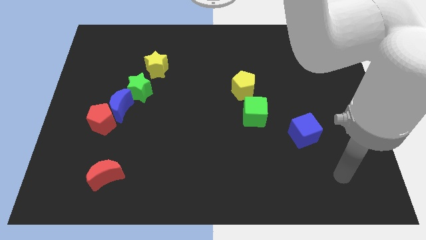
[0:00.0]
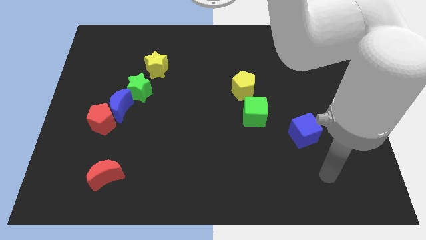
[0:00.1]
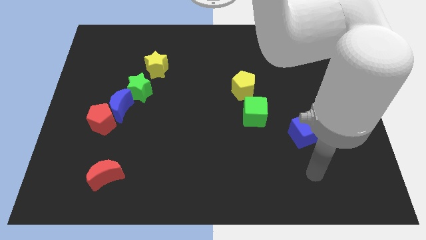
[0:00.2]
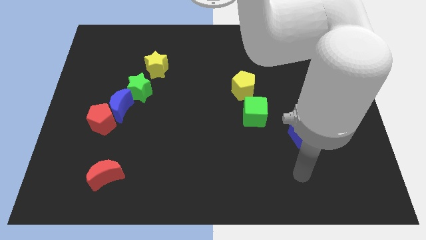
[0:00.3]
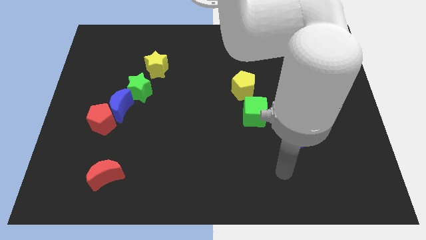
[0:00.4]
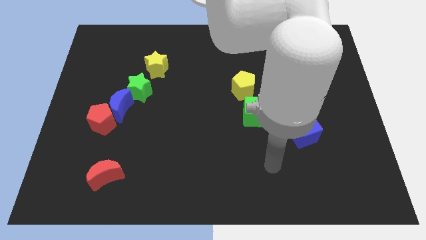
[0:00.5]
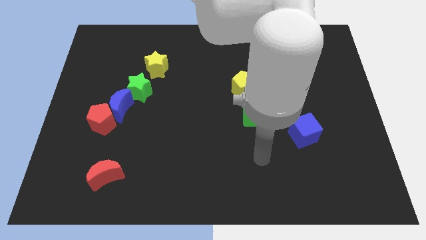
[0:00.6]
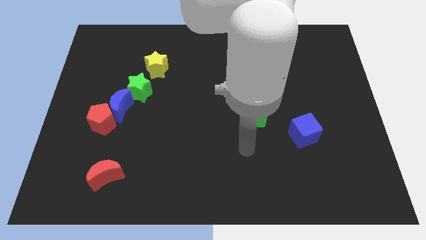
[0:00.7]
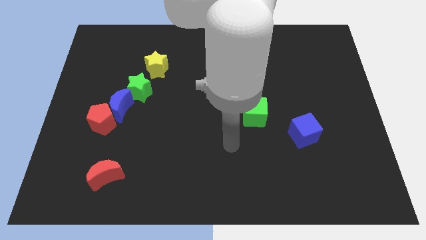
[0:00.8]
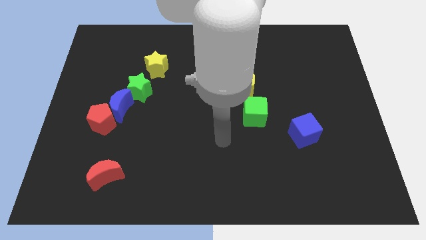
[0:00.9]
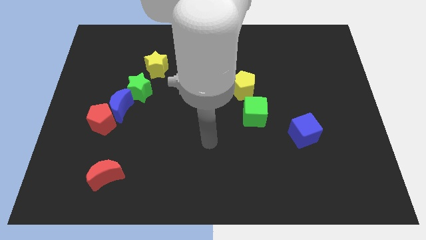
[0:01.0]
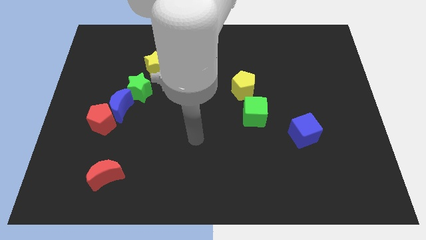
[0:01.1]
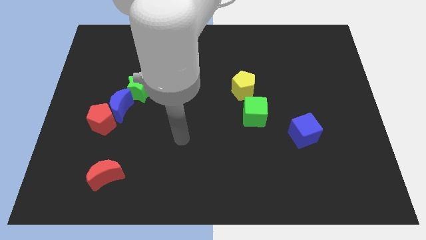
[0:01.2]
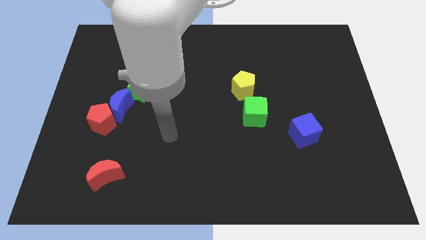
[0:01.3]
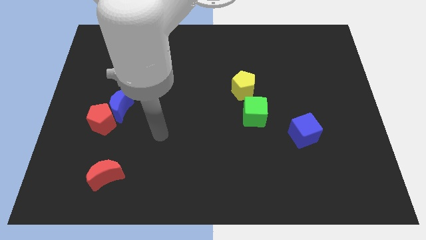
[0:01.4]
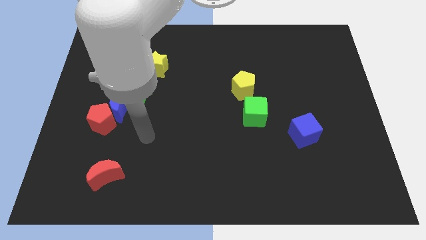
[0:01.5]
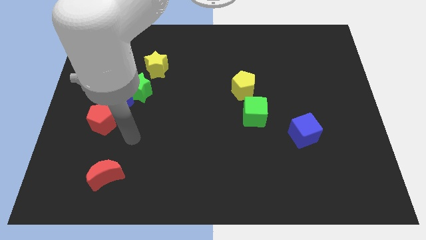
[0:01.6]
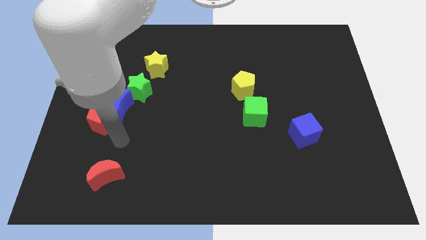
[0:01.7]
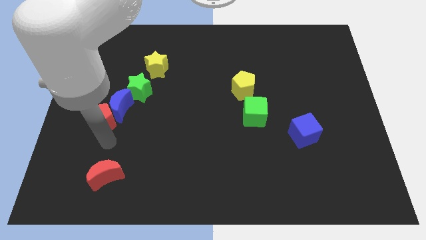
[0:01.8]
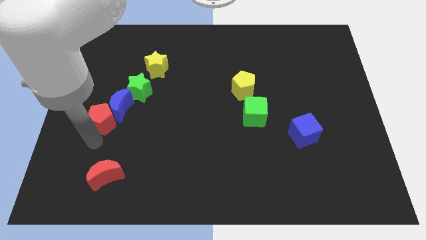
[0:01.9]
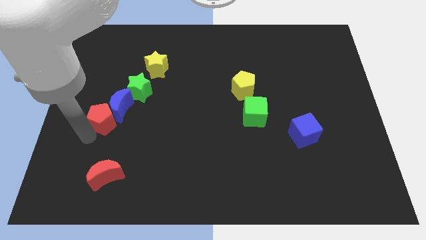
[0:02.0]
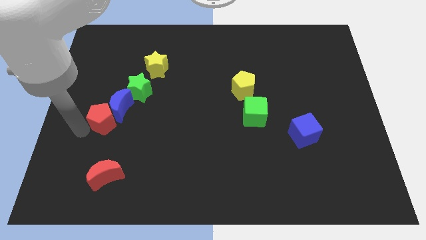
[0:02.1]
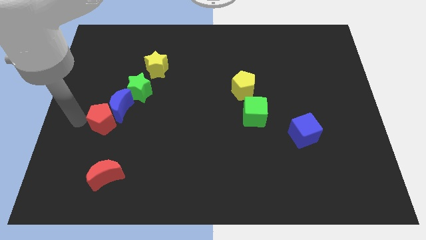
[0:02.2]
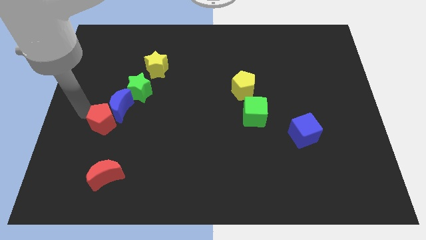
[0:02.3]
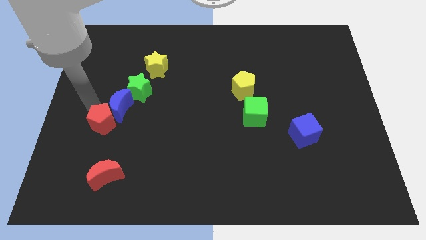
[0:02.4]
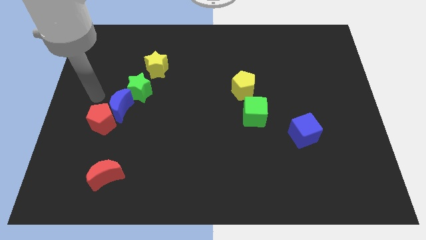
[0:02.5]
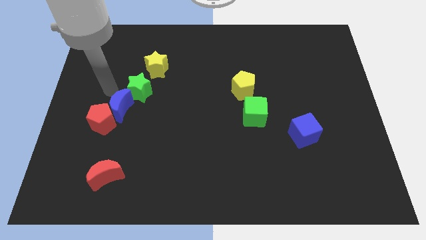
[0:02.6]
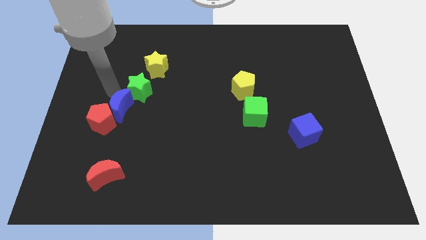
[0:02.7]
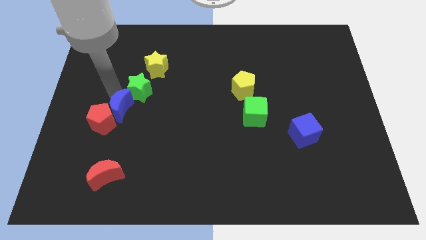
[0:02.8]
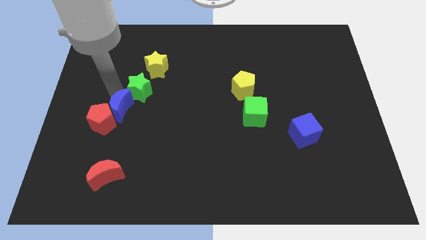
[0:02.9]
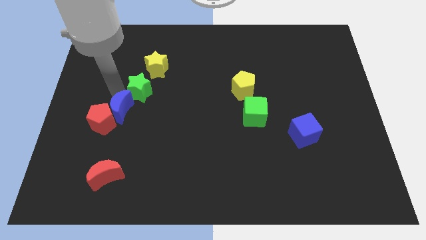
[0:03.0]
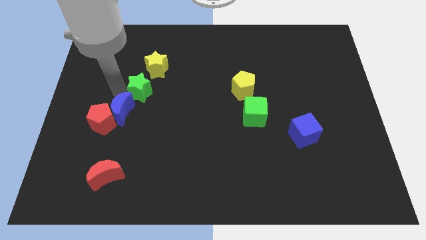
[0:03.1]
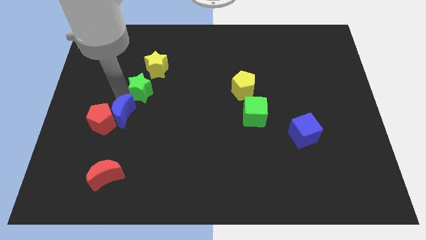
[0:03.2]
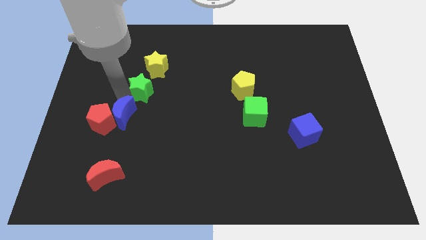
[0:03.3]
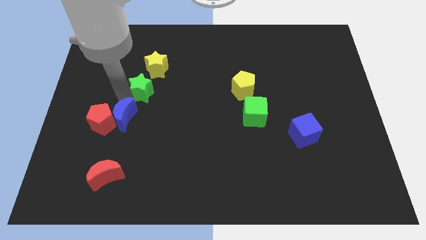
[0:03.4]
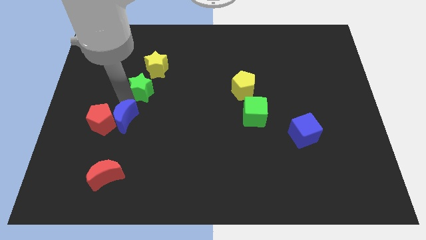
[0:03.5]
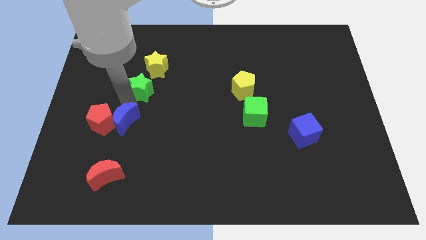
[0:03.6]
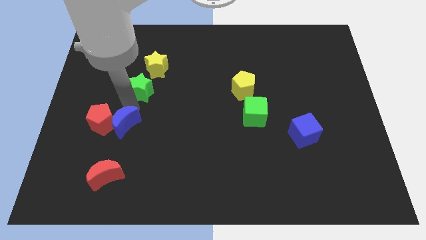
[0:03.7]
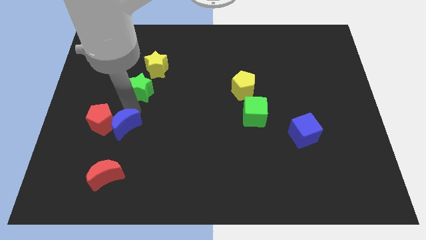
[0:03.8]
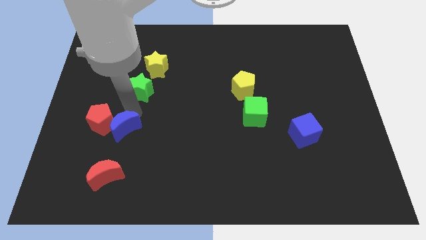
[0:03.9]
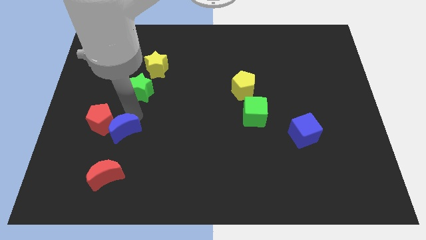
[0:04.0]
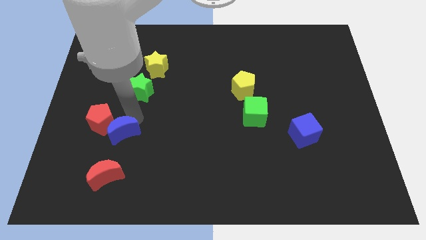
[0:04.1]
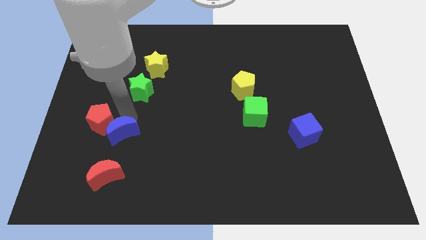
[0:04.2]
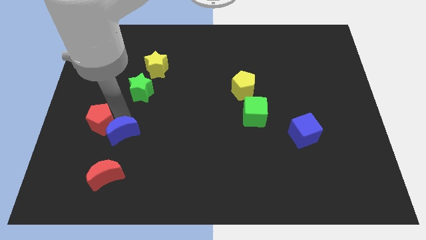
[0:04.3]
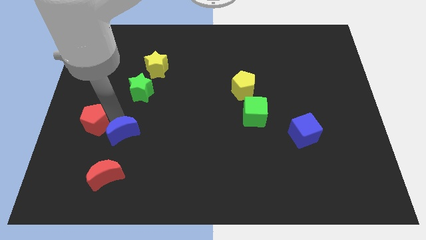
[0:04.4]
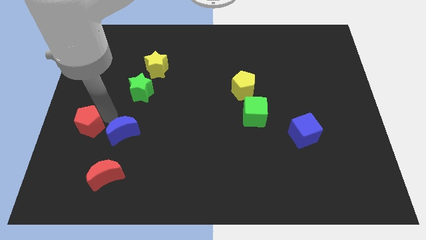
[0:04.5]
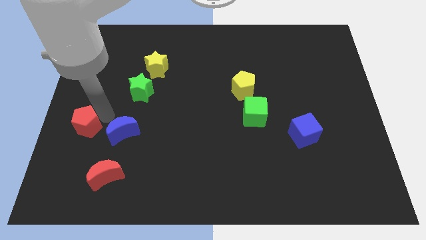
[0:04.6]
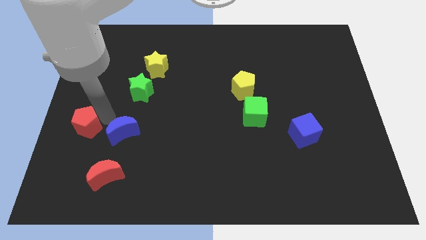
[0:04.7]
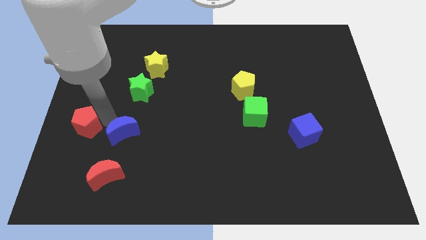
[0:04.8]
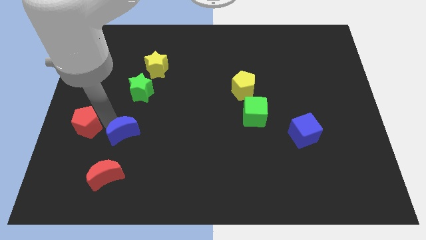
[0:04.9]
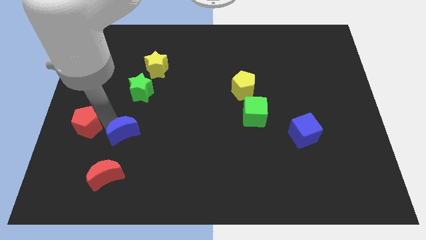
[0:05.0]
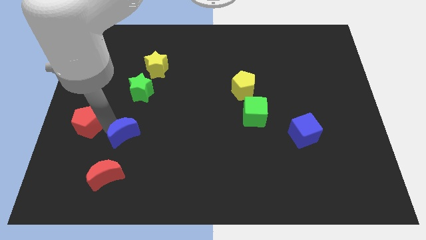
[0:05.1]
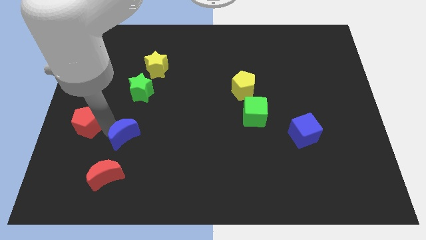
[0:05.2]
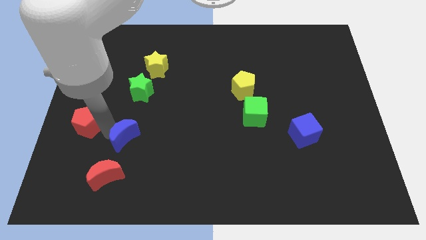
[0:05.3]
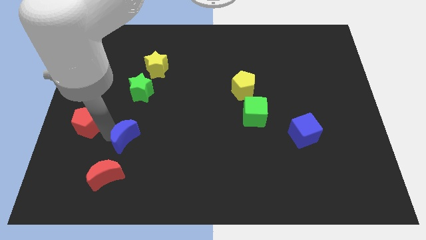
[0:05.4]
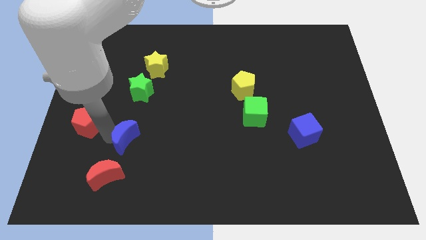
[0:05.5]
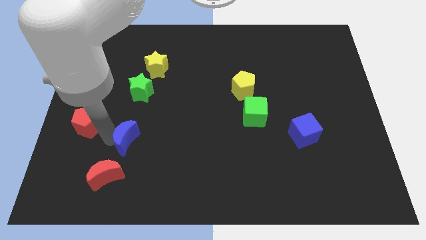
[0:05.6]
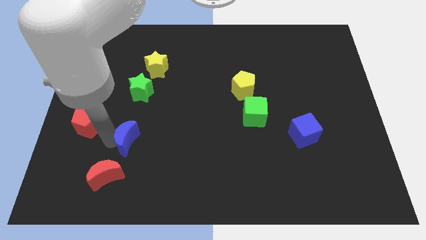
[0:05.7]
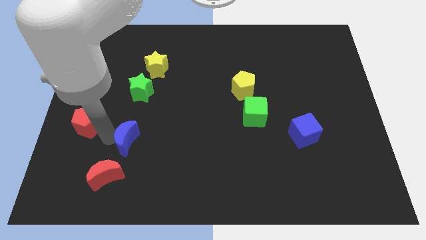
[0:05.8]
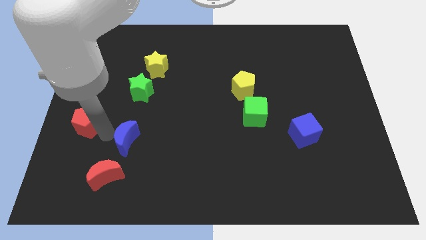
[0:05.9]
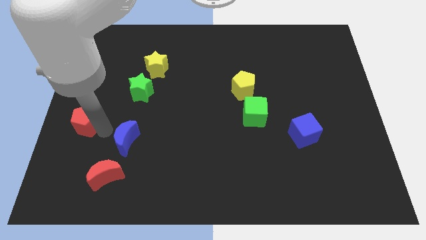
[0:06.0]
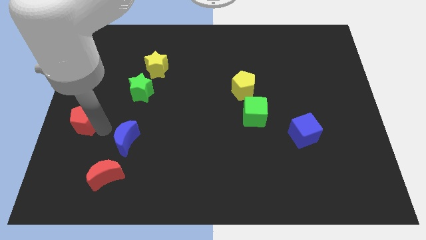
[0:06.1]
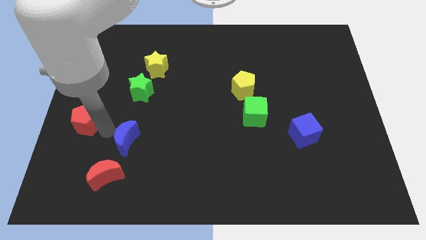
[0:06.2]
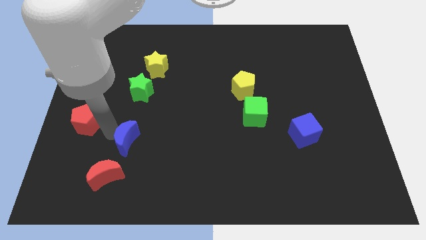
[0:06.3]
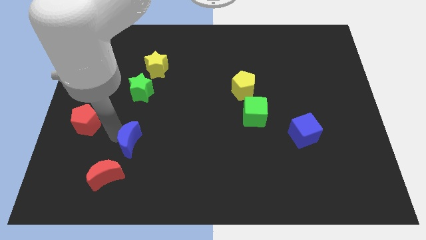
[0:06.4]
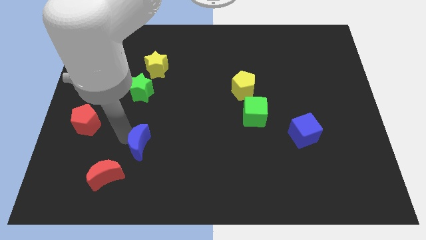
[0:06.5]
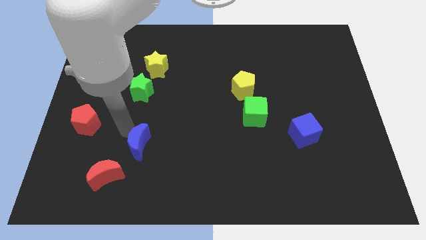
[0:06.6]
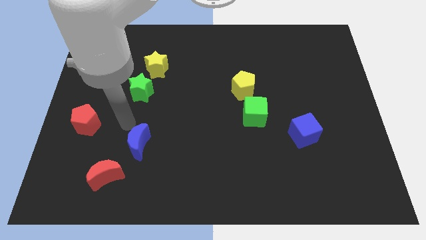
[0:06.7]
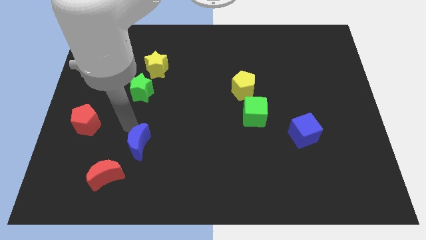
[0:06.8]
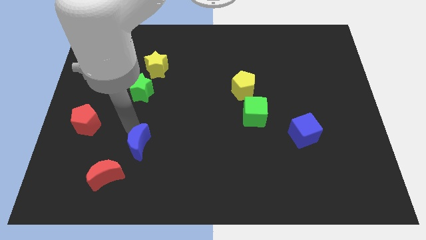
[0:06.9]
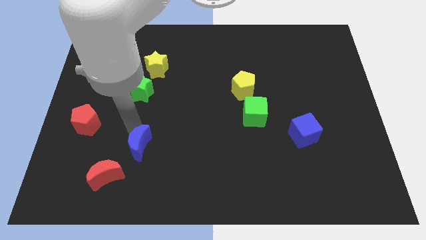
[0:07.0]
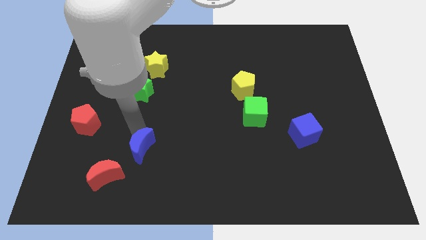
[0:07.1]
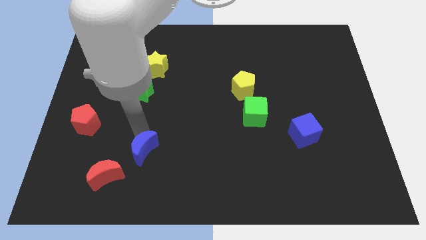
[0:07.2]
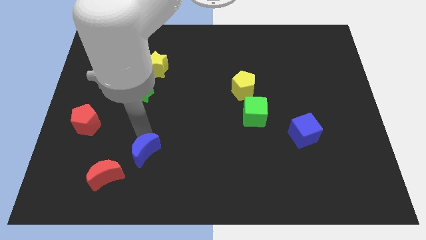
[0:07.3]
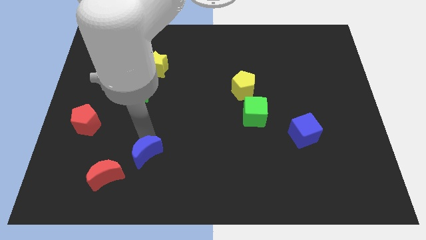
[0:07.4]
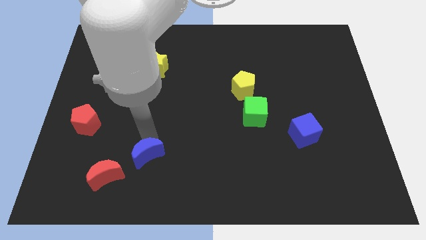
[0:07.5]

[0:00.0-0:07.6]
put the blue moon right of the red moon
